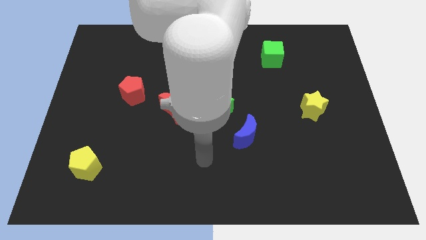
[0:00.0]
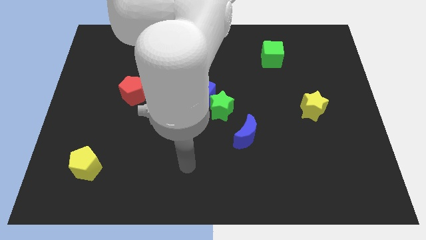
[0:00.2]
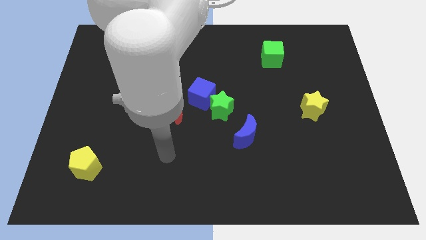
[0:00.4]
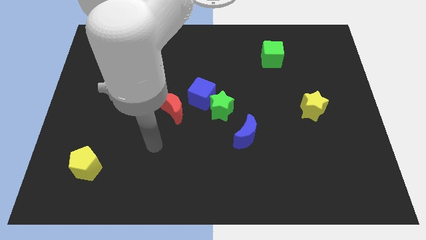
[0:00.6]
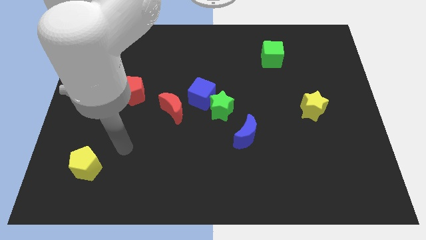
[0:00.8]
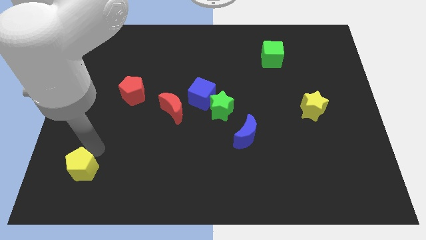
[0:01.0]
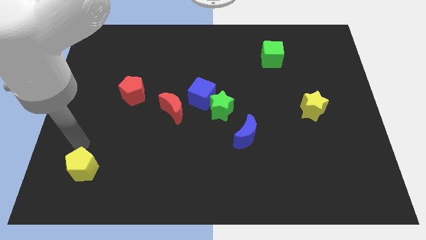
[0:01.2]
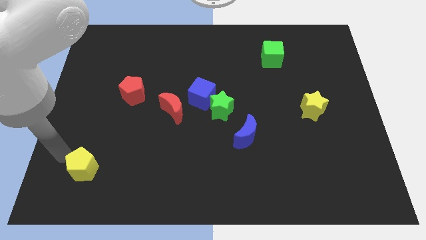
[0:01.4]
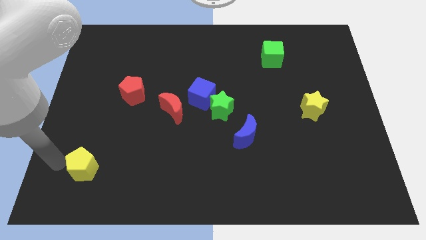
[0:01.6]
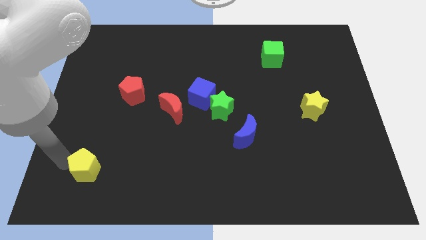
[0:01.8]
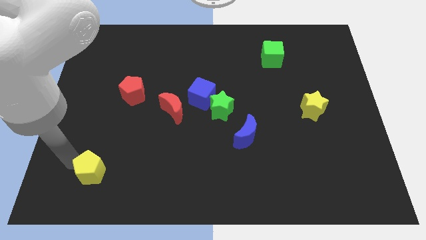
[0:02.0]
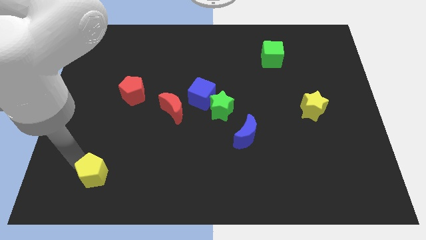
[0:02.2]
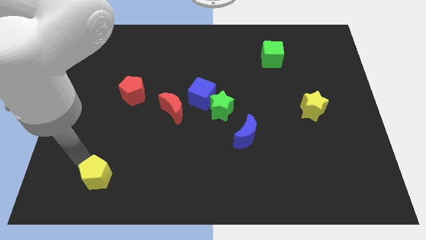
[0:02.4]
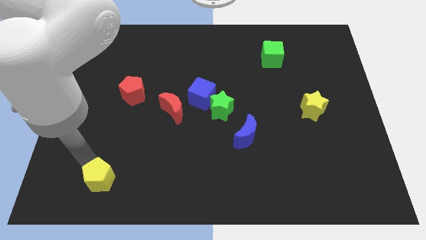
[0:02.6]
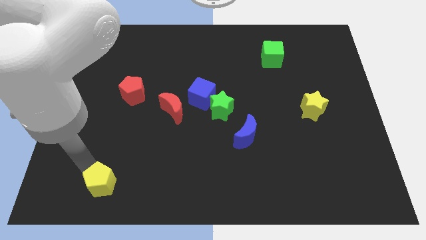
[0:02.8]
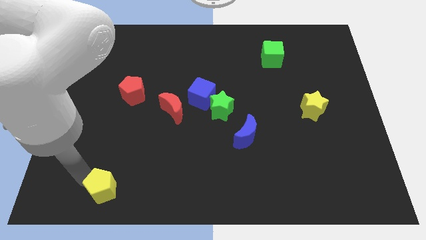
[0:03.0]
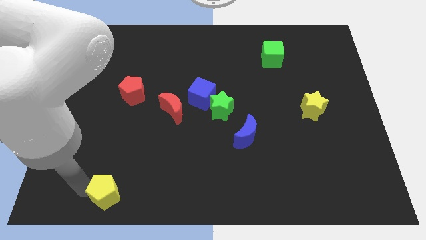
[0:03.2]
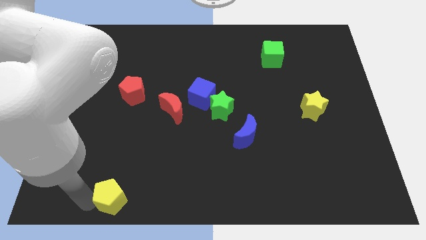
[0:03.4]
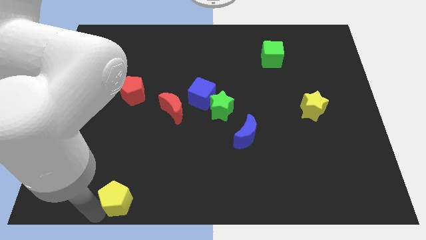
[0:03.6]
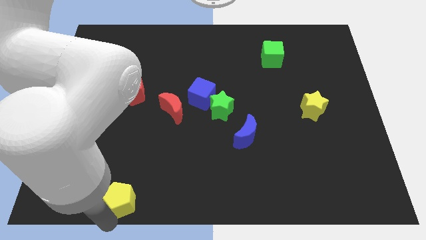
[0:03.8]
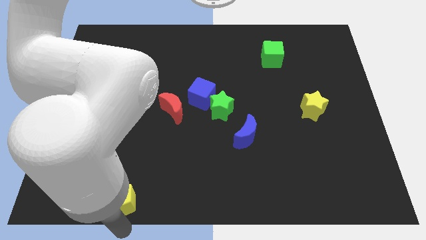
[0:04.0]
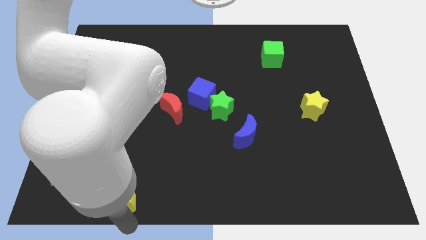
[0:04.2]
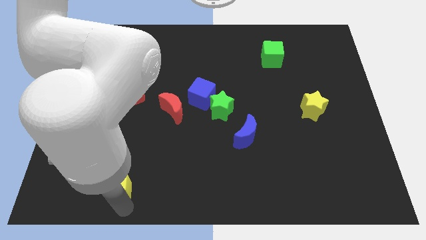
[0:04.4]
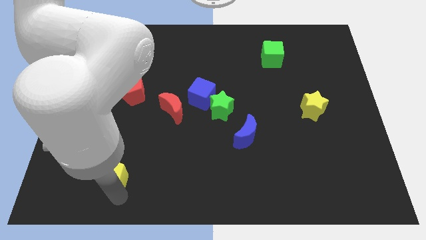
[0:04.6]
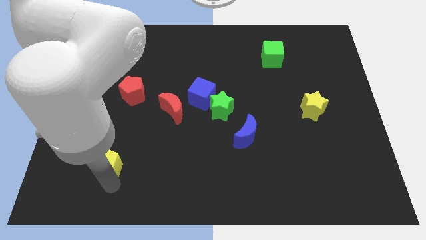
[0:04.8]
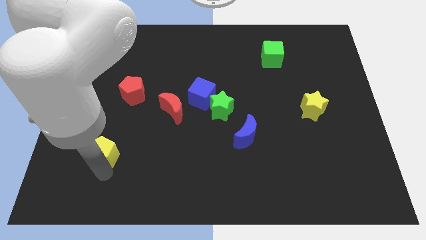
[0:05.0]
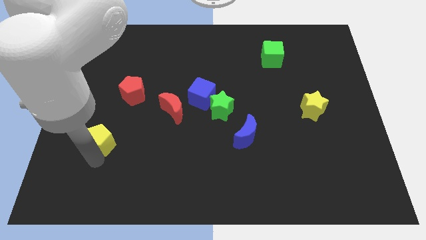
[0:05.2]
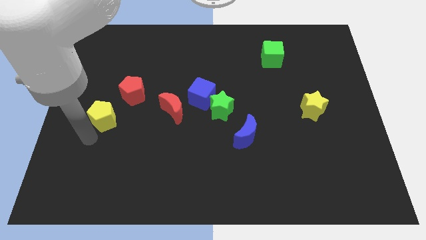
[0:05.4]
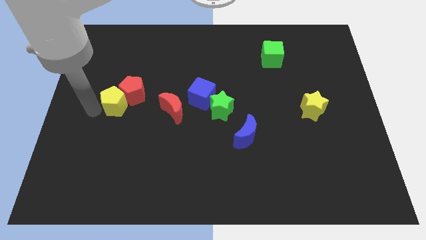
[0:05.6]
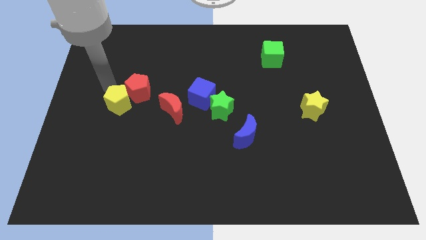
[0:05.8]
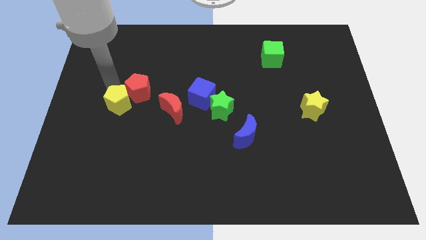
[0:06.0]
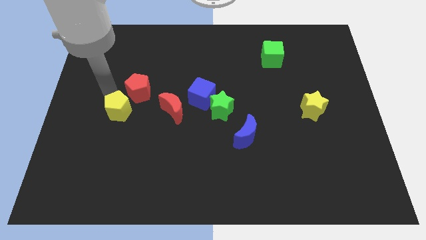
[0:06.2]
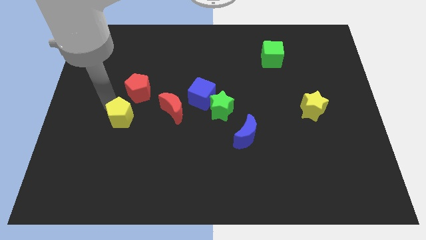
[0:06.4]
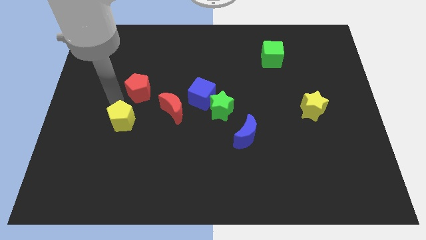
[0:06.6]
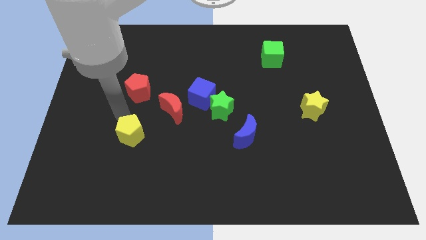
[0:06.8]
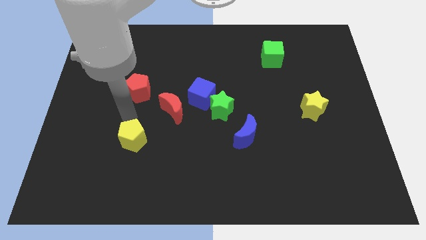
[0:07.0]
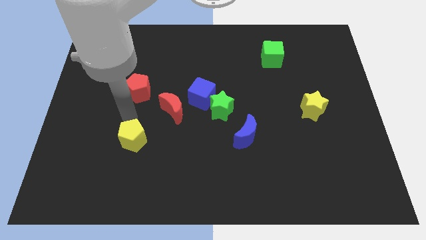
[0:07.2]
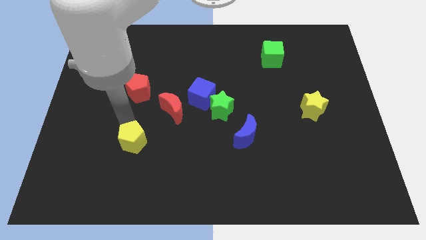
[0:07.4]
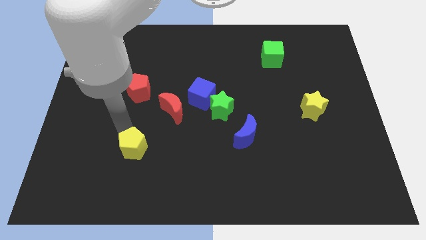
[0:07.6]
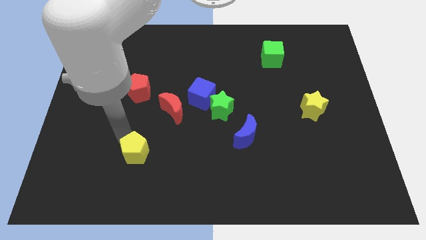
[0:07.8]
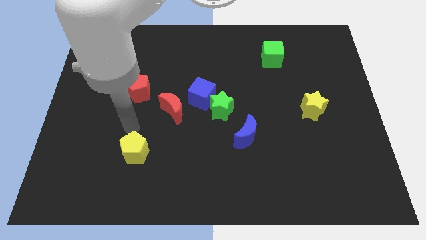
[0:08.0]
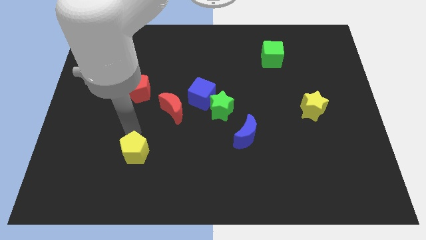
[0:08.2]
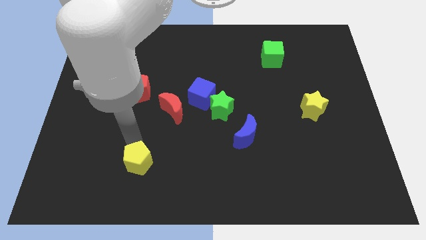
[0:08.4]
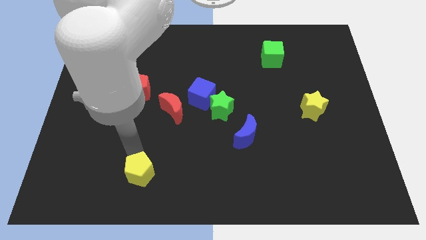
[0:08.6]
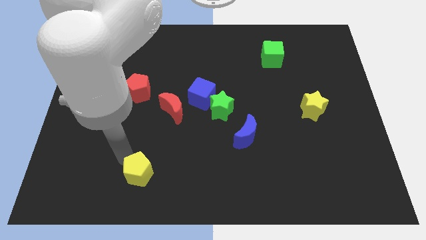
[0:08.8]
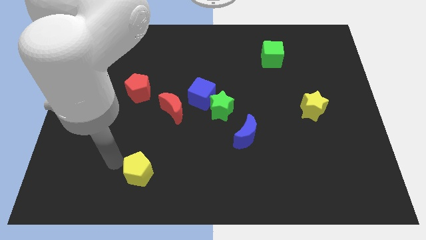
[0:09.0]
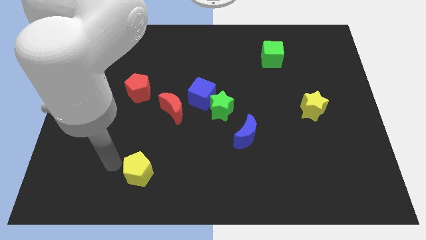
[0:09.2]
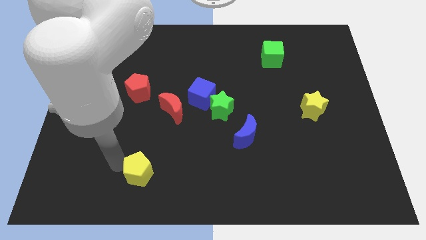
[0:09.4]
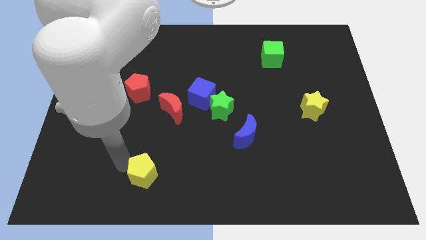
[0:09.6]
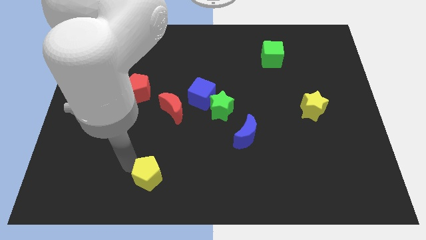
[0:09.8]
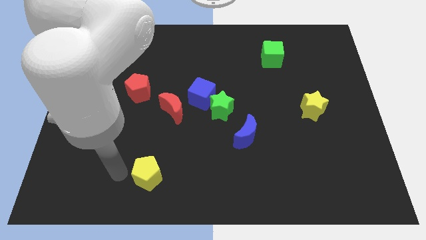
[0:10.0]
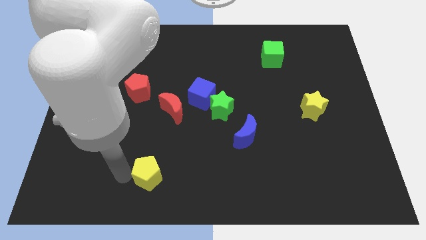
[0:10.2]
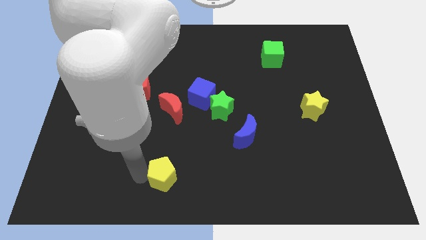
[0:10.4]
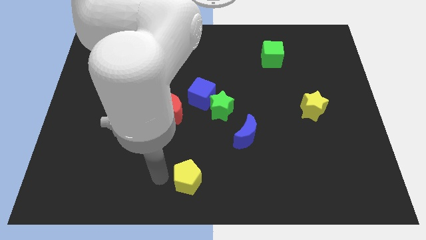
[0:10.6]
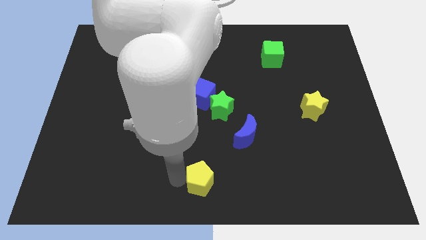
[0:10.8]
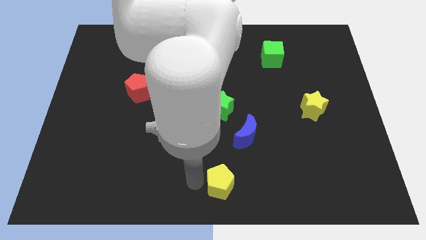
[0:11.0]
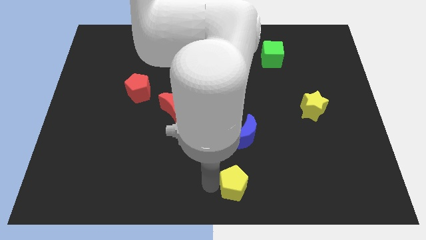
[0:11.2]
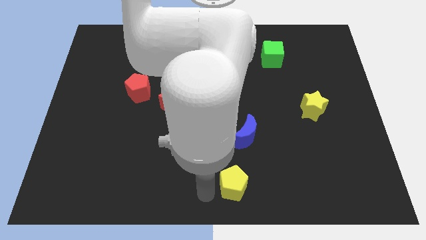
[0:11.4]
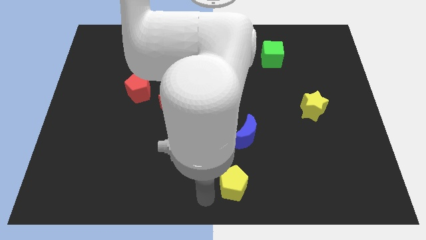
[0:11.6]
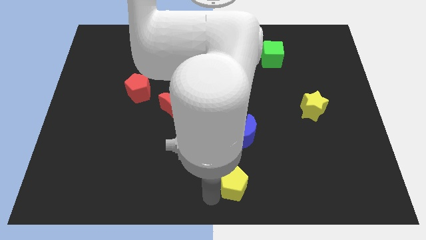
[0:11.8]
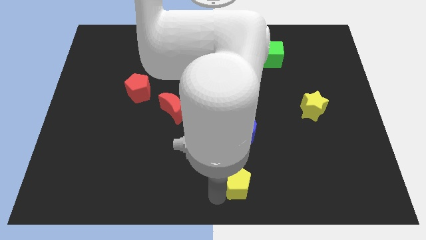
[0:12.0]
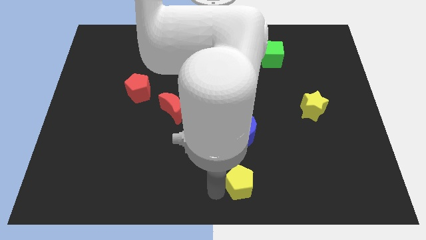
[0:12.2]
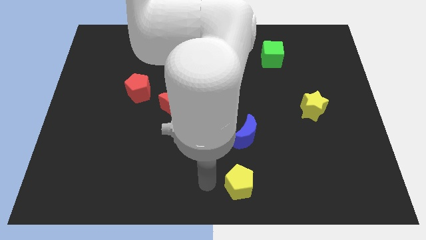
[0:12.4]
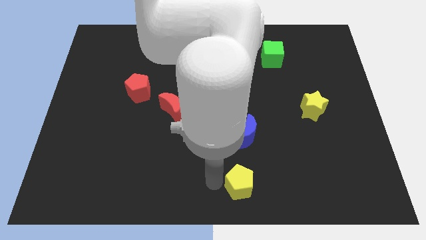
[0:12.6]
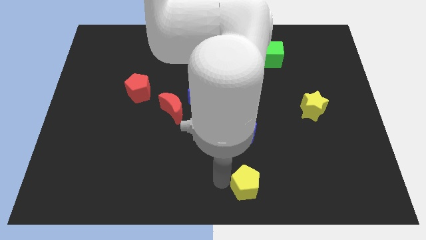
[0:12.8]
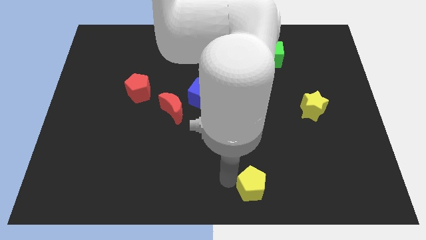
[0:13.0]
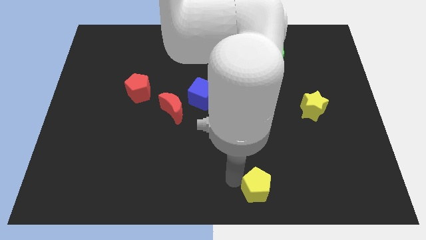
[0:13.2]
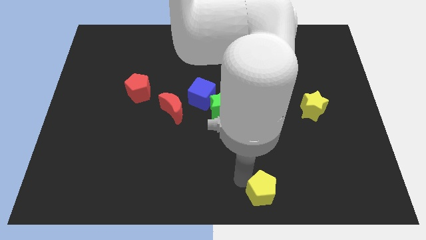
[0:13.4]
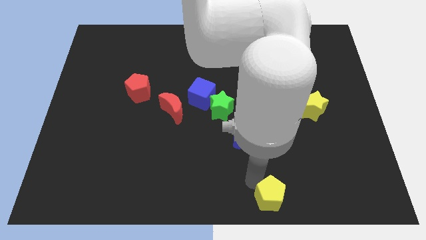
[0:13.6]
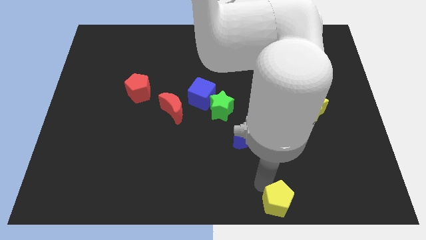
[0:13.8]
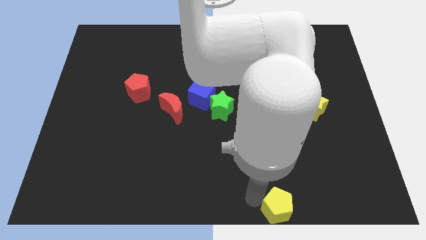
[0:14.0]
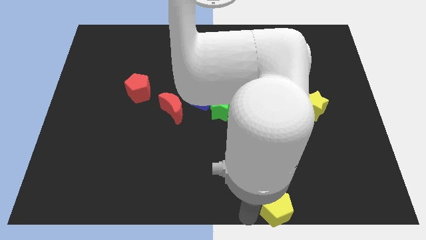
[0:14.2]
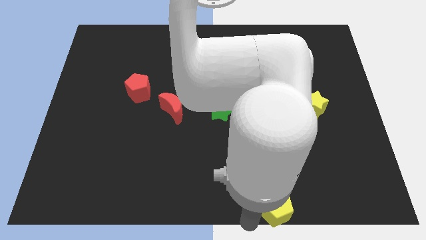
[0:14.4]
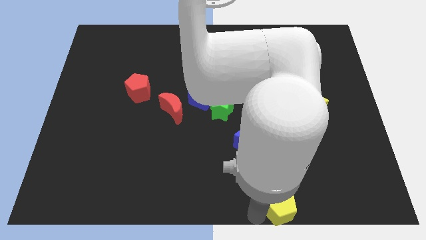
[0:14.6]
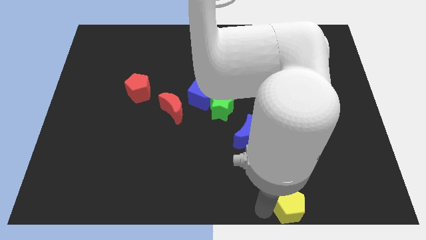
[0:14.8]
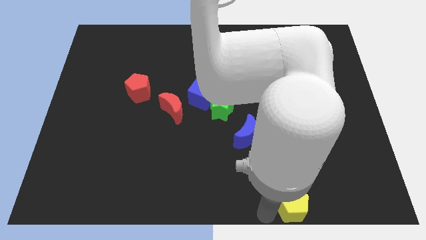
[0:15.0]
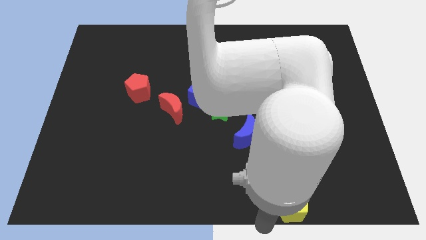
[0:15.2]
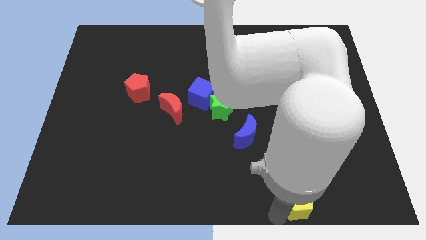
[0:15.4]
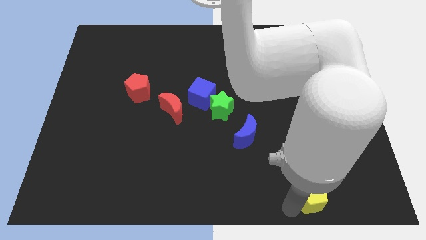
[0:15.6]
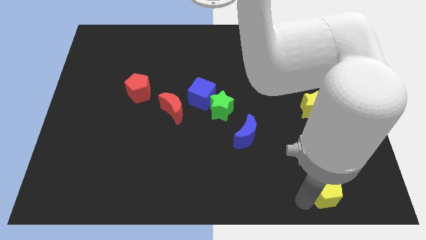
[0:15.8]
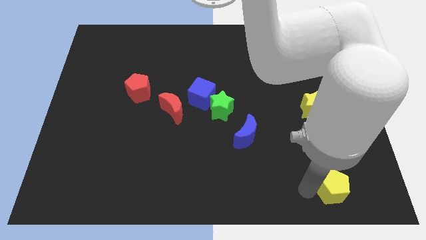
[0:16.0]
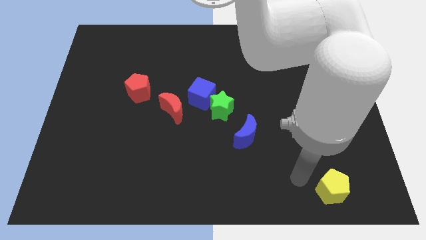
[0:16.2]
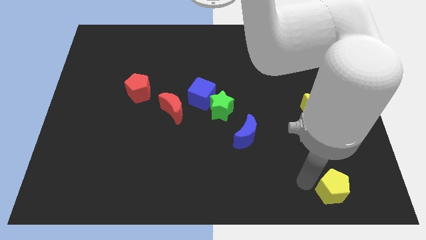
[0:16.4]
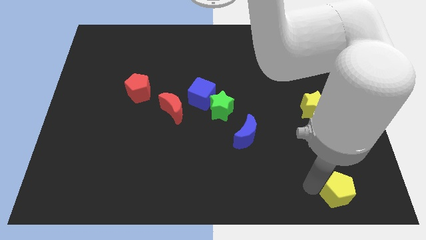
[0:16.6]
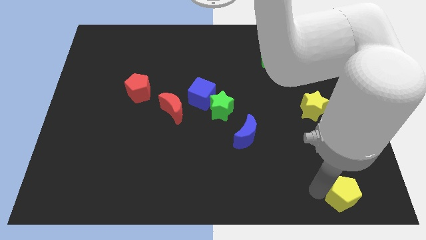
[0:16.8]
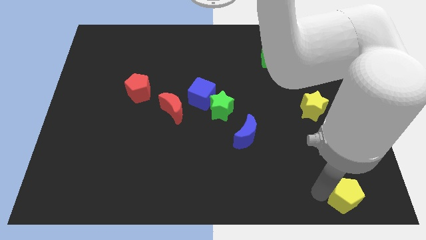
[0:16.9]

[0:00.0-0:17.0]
put the yellow pentagon to the bottom right of the board
